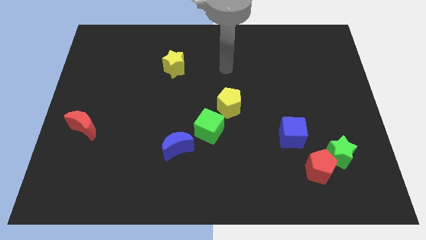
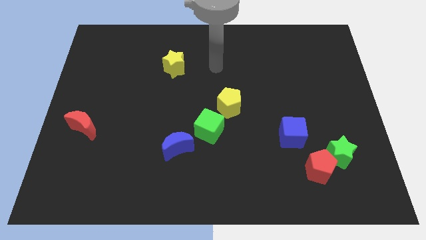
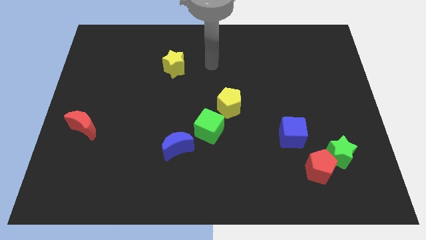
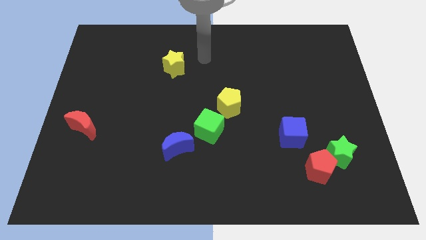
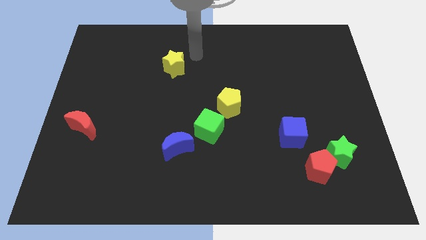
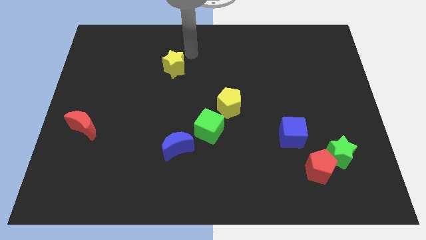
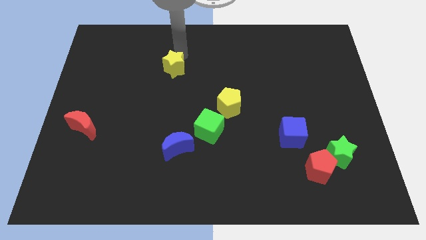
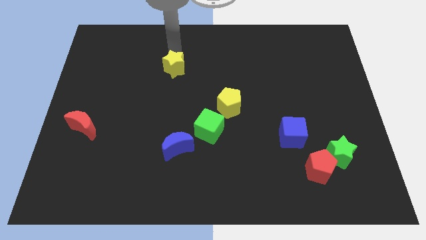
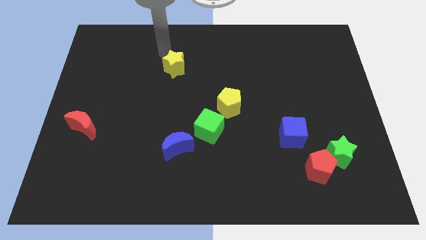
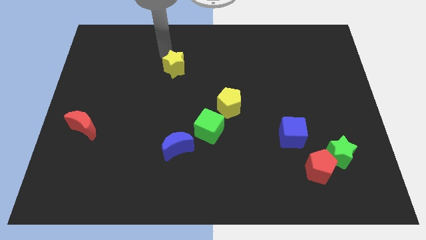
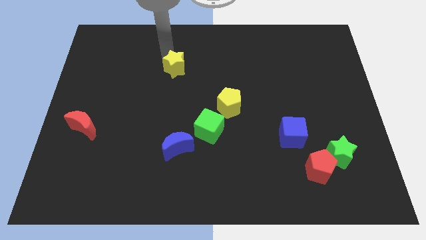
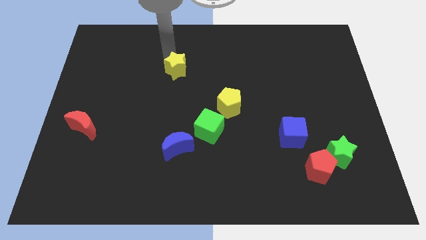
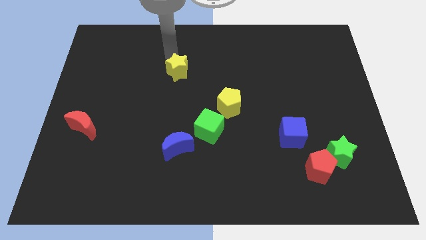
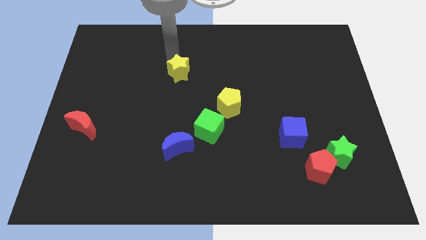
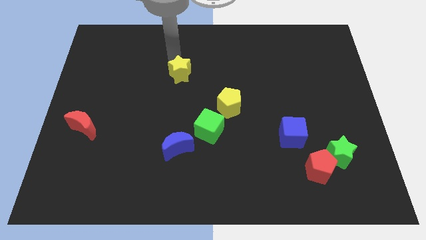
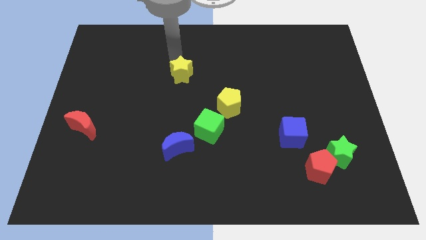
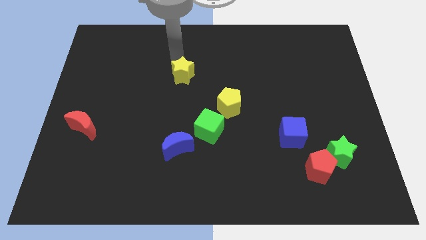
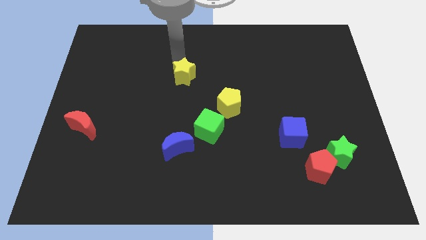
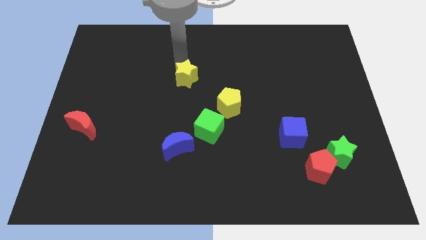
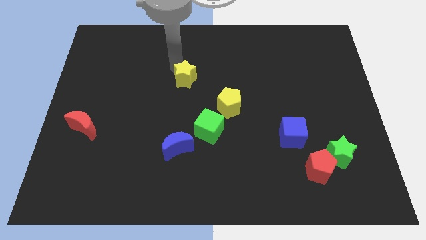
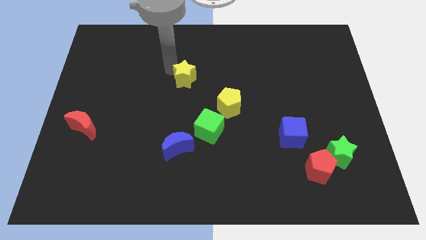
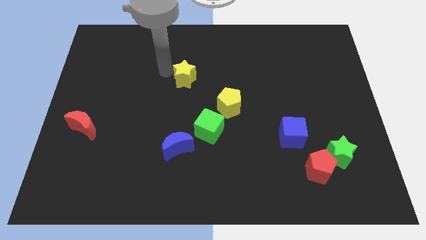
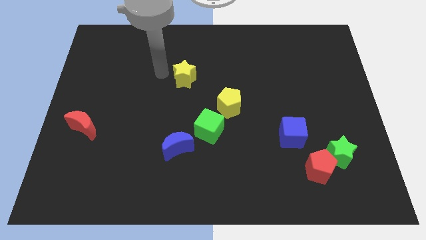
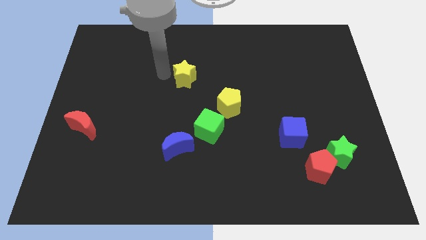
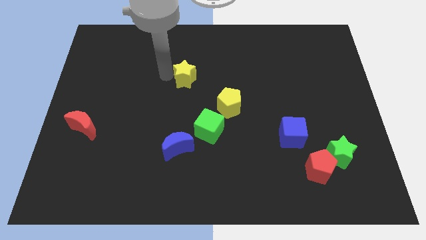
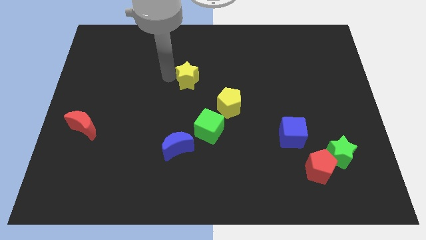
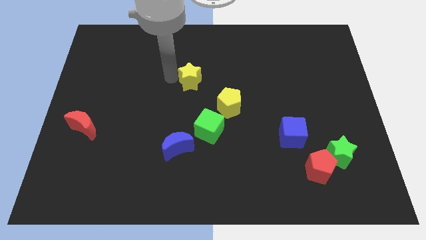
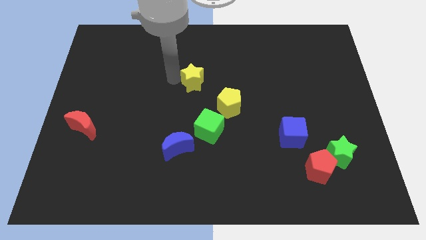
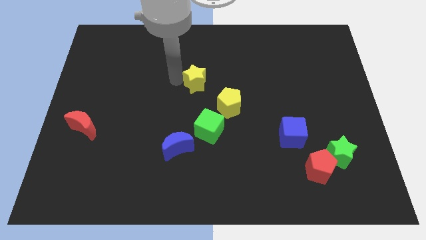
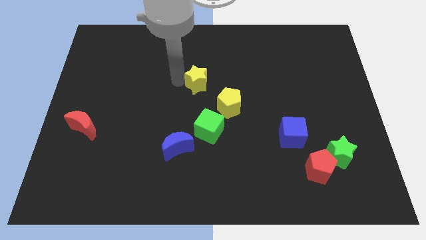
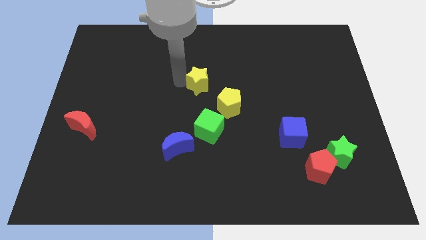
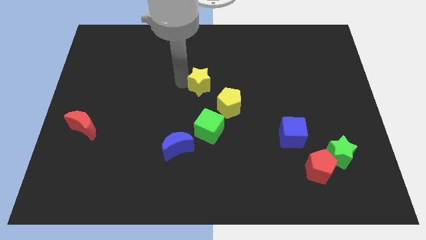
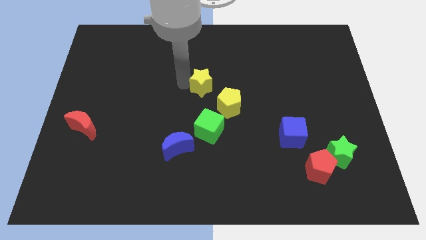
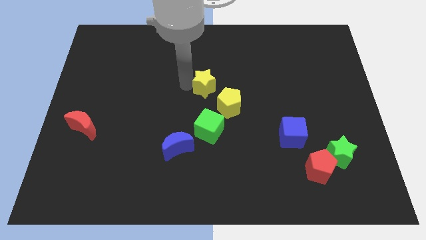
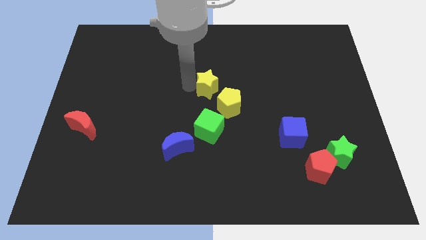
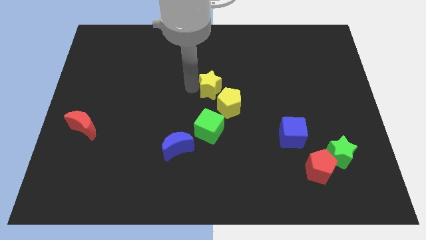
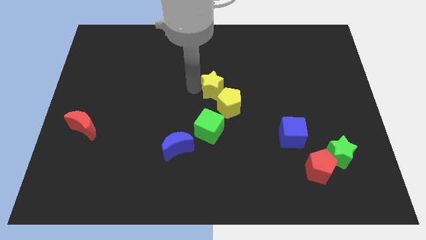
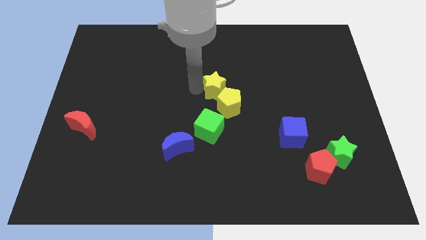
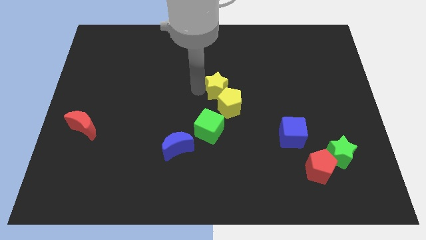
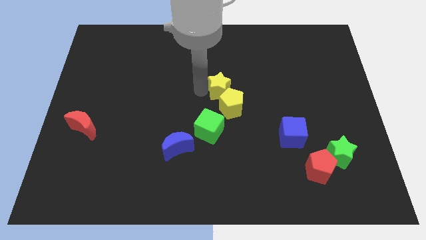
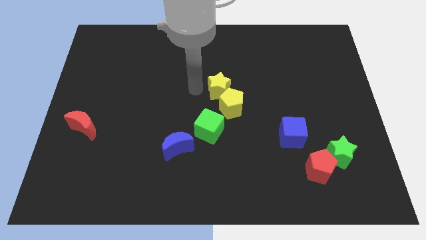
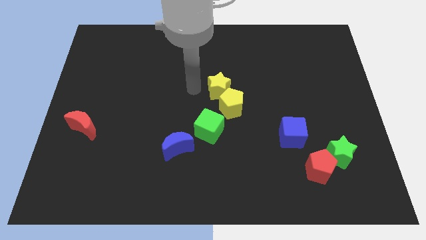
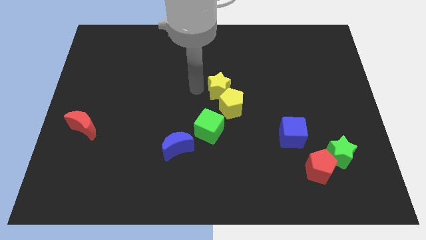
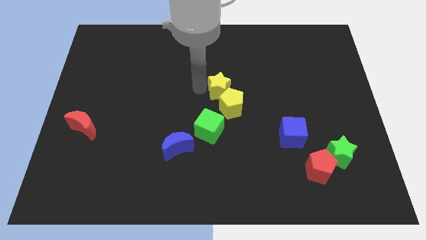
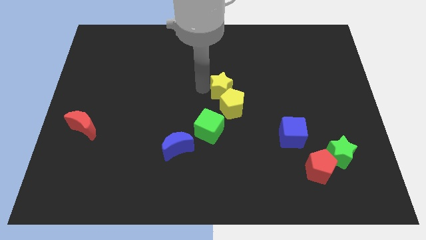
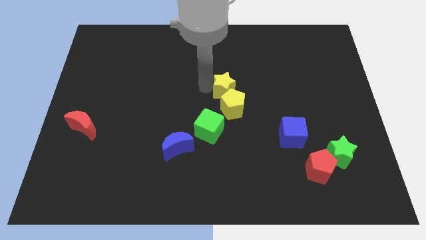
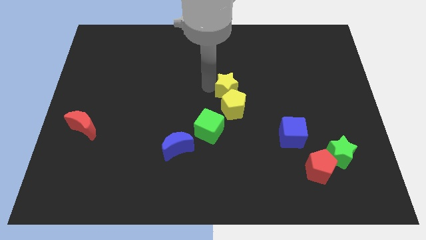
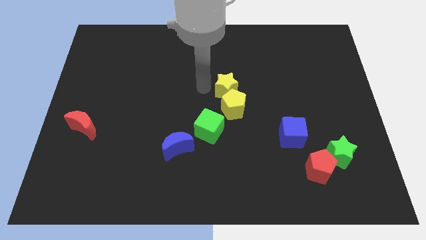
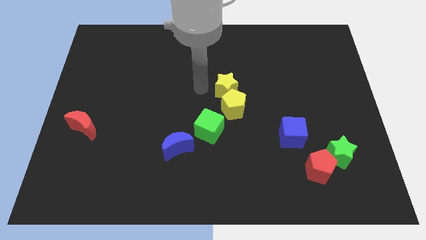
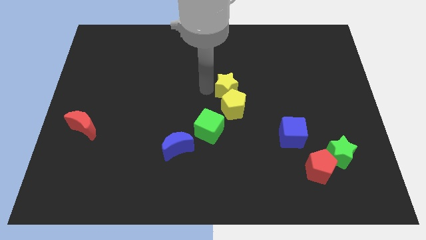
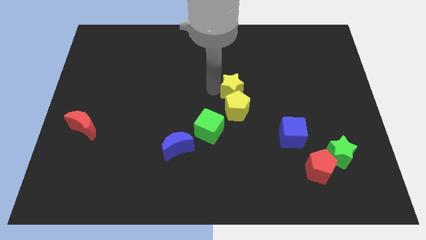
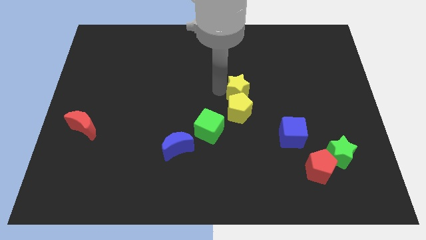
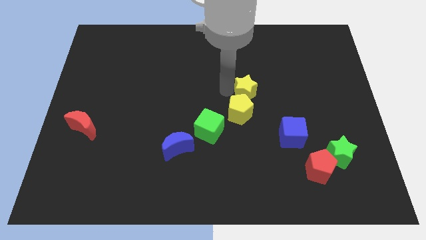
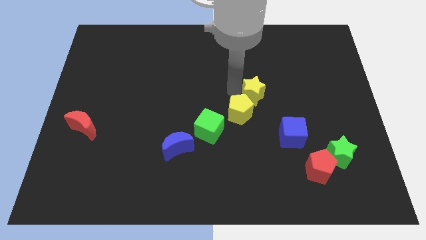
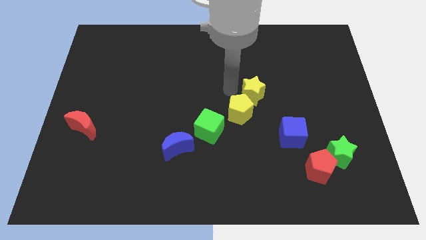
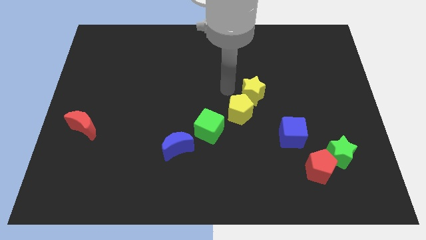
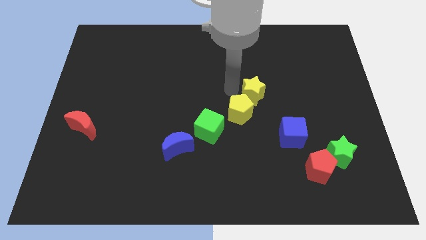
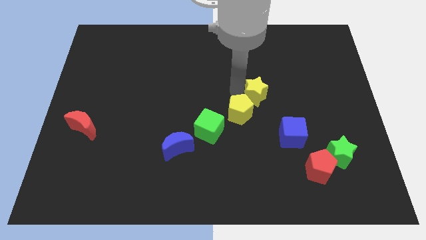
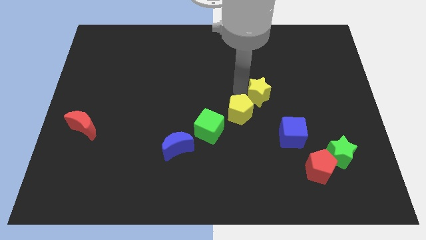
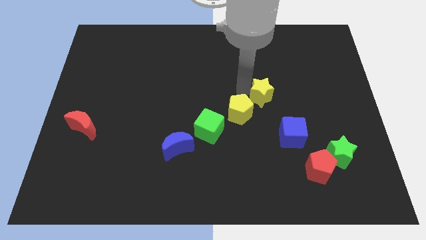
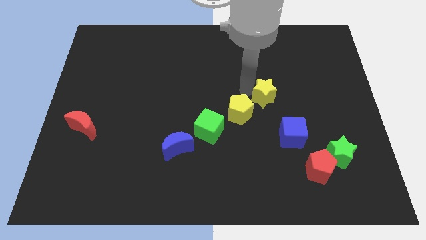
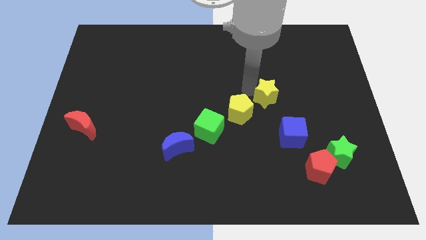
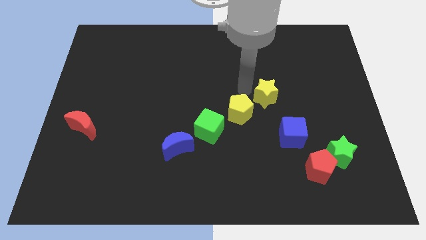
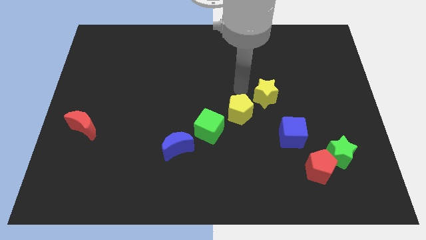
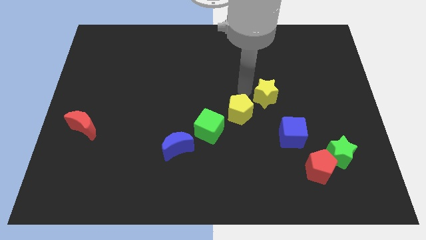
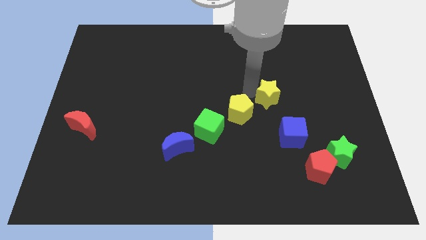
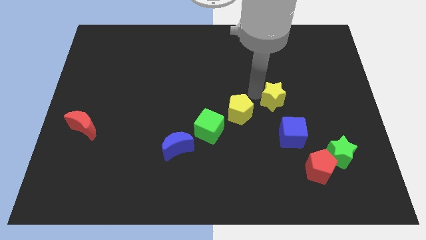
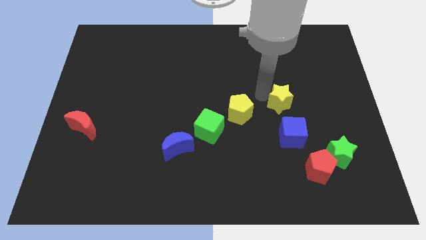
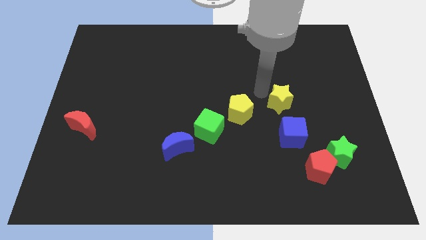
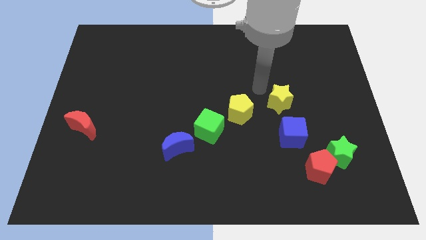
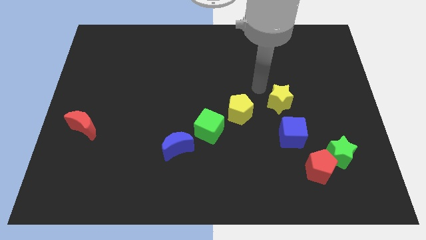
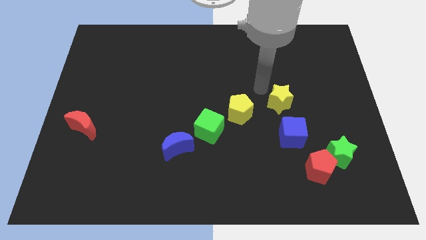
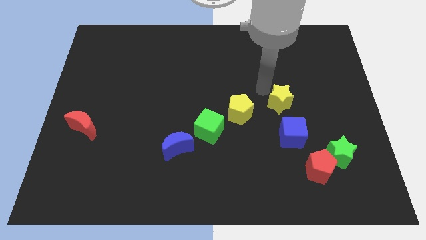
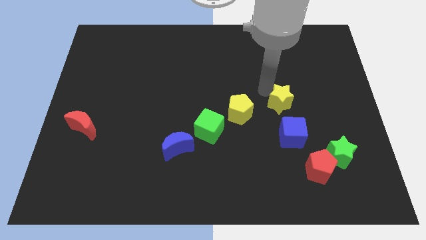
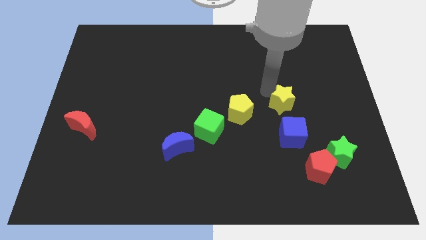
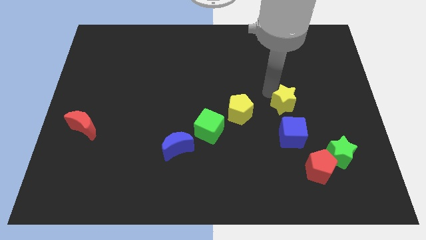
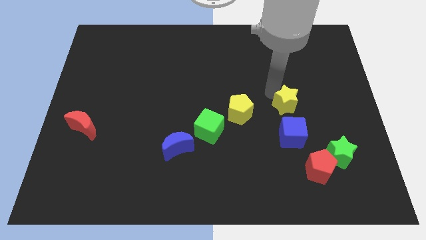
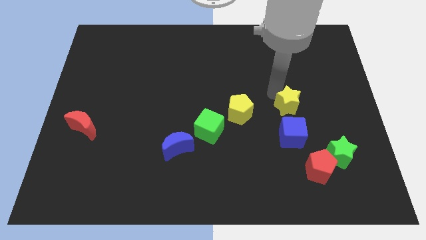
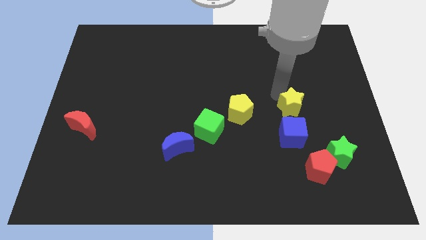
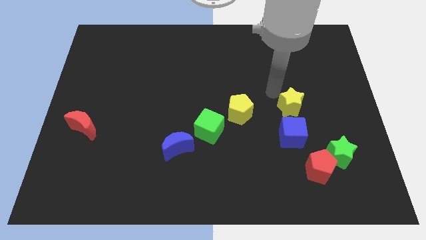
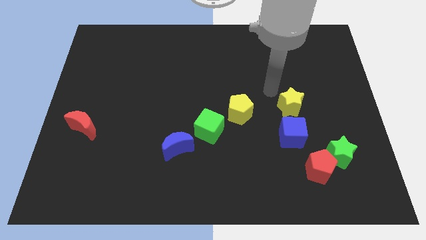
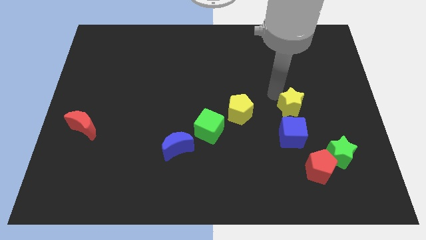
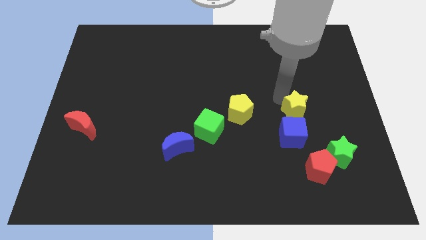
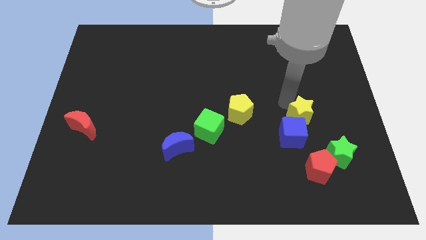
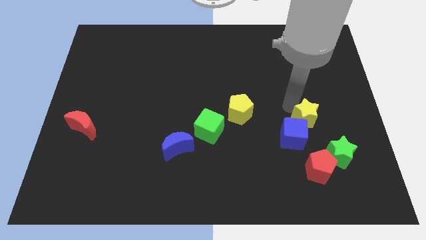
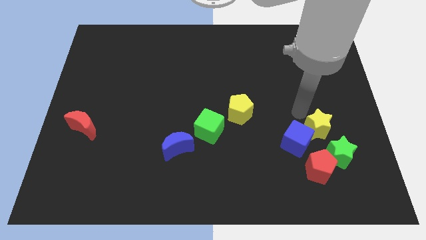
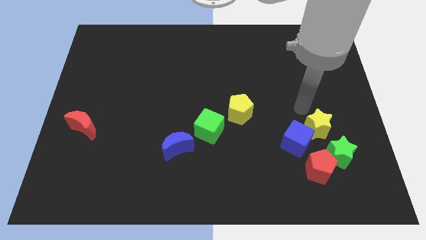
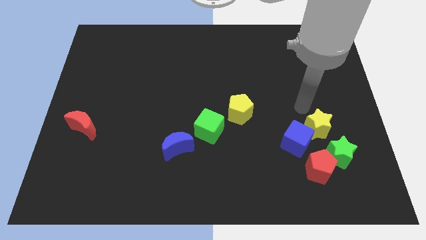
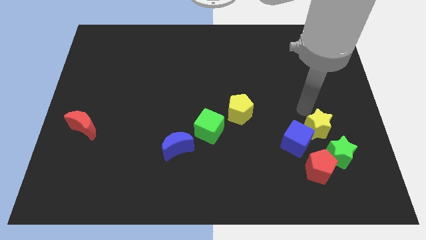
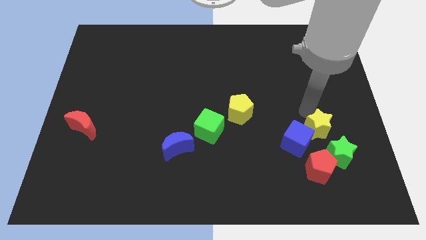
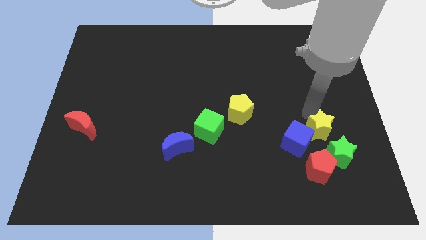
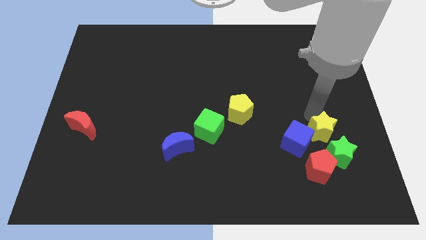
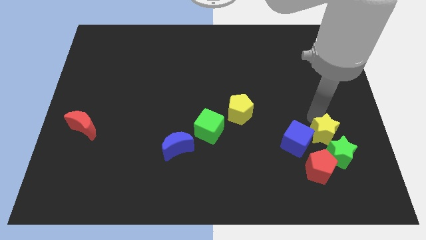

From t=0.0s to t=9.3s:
slide the yellow star to the green star
